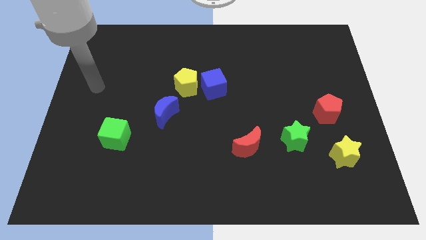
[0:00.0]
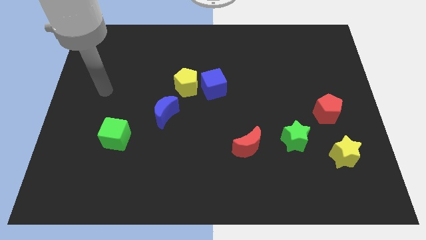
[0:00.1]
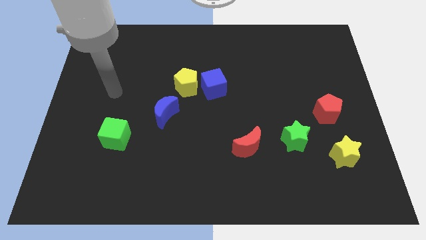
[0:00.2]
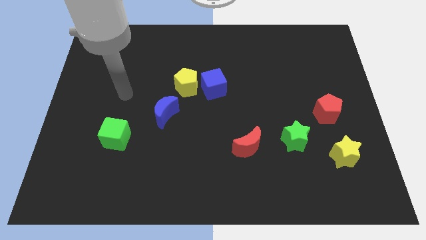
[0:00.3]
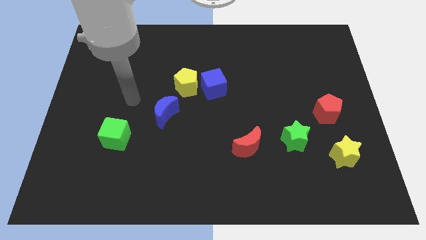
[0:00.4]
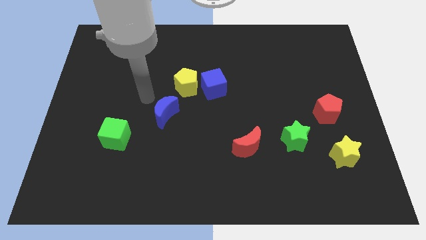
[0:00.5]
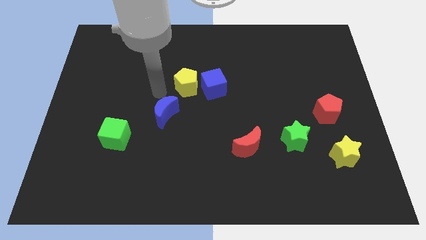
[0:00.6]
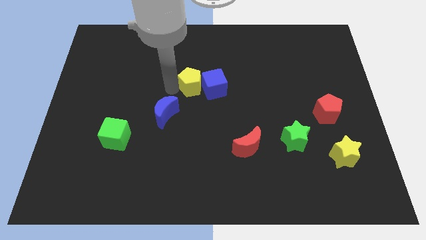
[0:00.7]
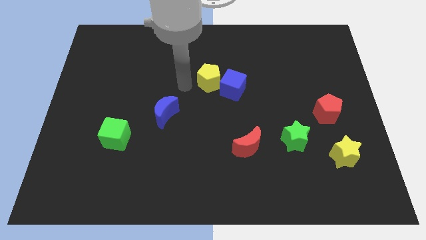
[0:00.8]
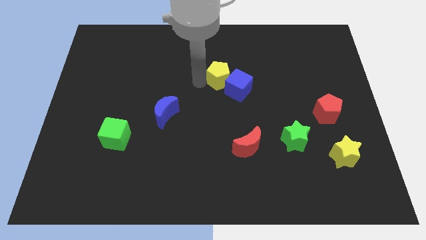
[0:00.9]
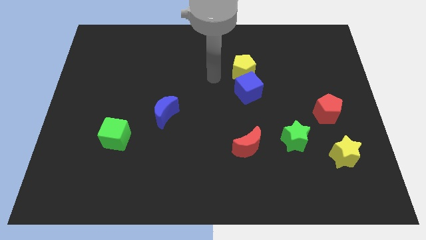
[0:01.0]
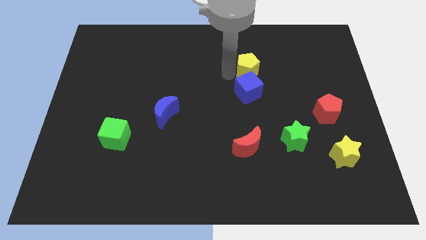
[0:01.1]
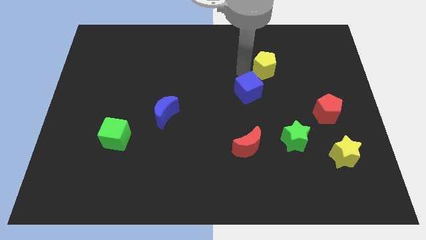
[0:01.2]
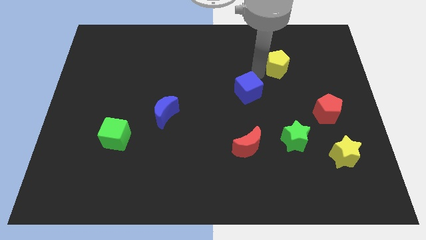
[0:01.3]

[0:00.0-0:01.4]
pull the blue cube apart from the yellow pentagon

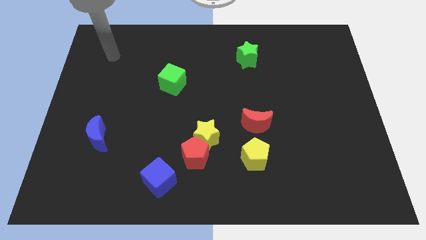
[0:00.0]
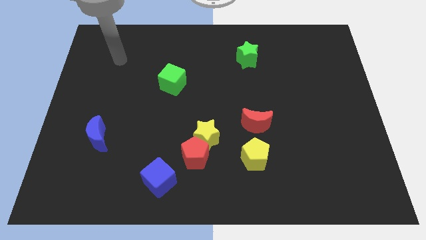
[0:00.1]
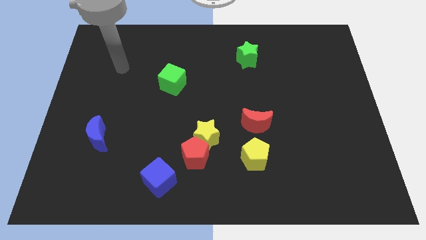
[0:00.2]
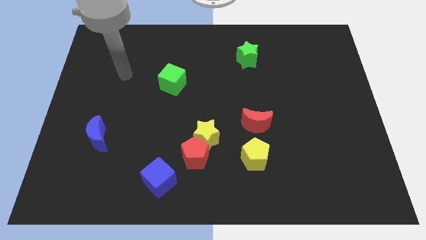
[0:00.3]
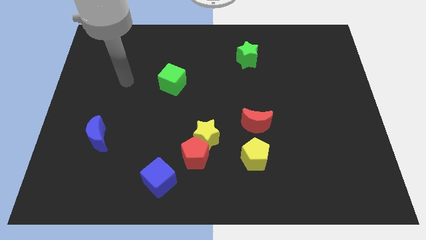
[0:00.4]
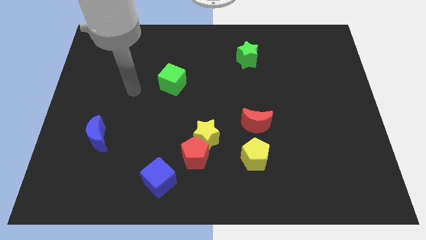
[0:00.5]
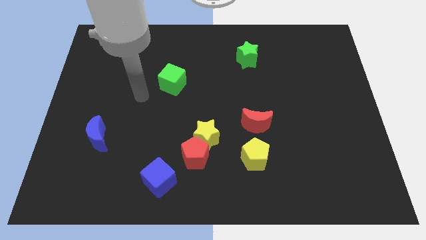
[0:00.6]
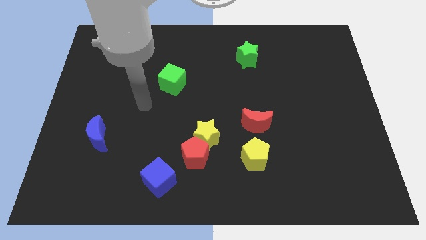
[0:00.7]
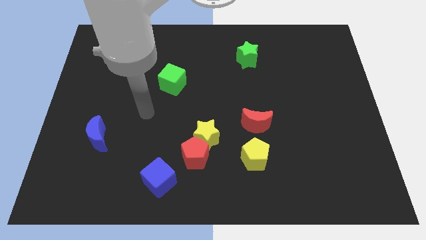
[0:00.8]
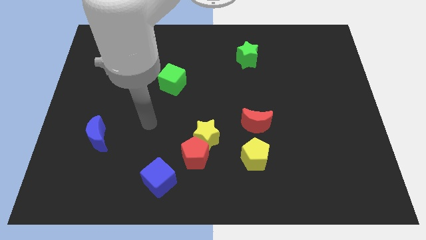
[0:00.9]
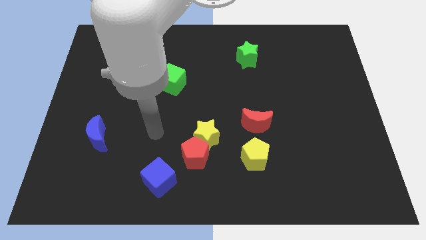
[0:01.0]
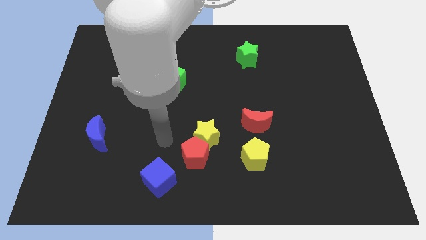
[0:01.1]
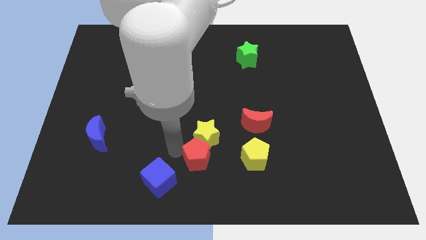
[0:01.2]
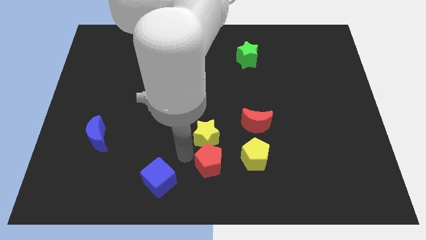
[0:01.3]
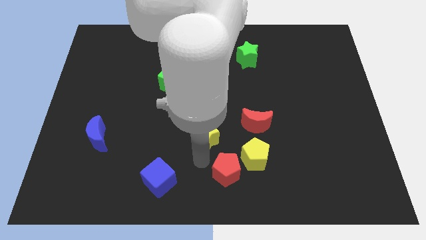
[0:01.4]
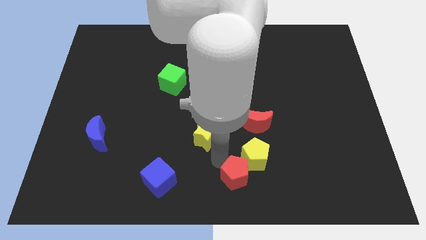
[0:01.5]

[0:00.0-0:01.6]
pull the yellow star apart from the red pentagon

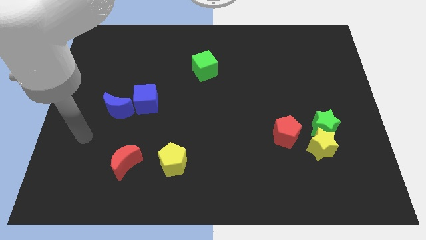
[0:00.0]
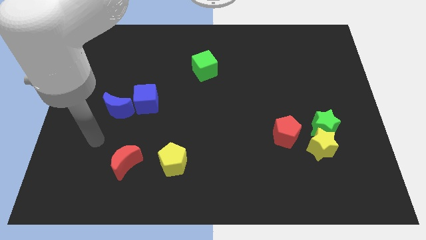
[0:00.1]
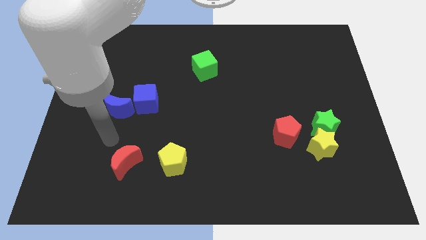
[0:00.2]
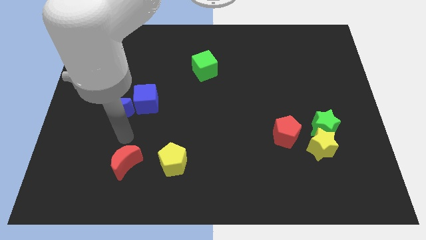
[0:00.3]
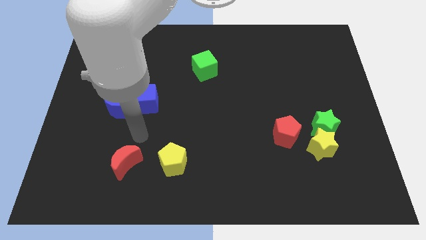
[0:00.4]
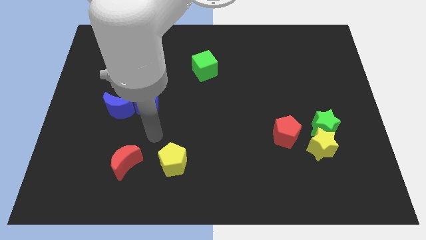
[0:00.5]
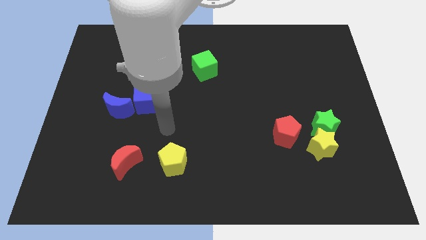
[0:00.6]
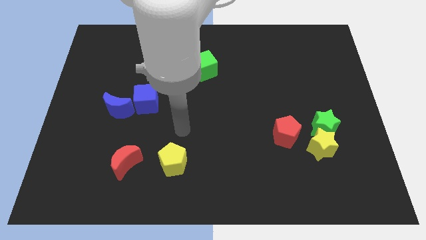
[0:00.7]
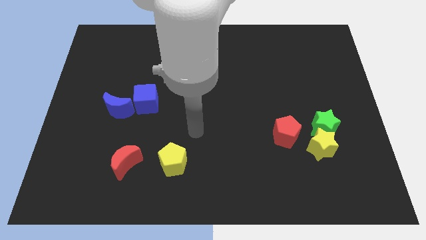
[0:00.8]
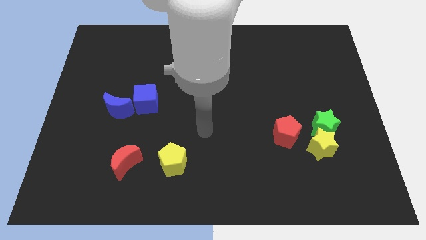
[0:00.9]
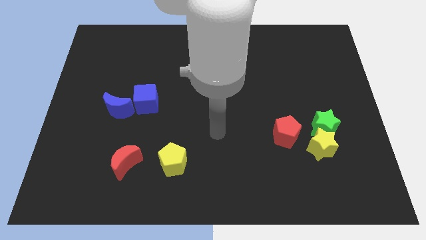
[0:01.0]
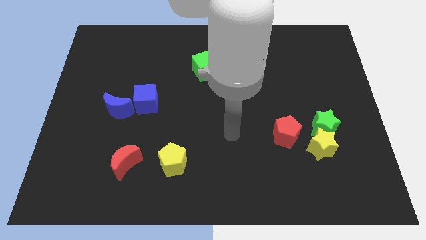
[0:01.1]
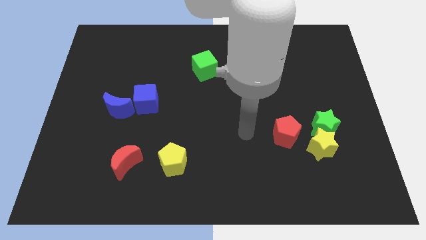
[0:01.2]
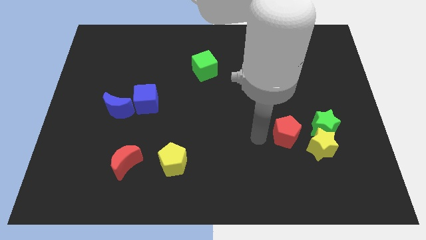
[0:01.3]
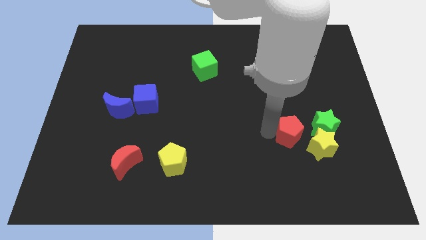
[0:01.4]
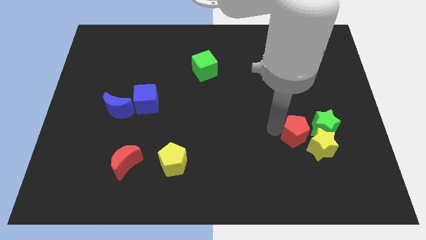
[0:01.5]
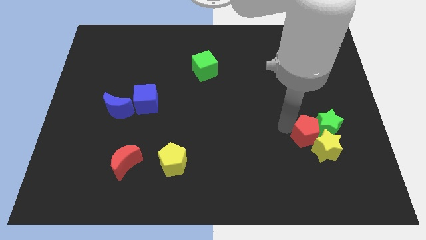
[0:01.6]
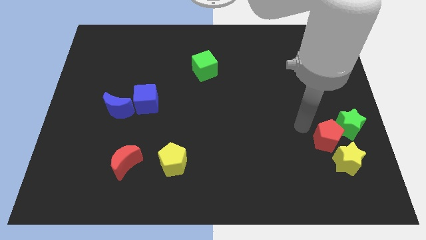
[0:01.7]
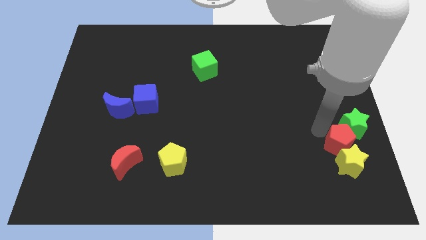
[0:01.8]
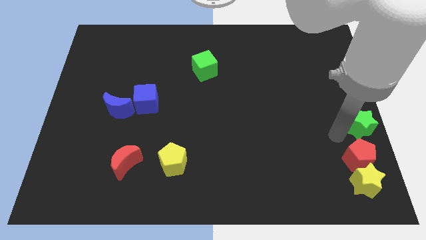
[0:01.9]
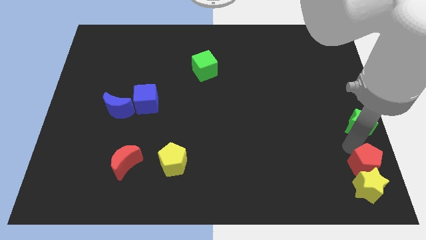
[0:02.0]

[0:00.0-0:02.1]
pull the yellow star apart from the green star and red pentagon

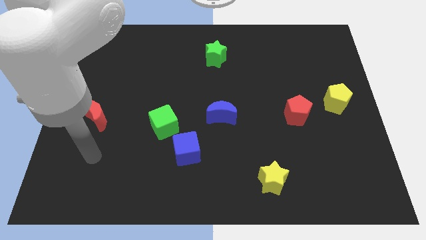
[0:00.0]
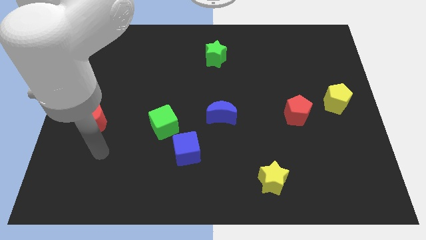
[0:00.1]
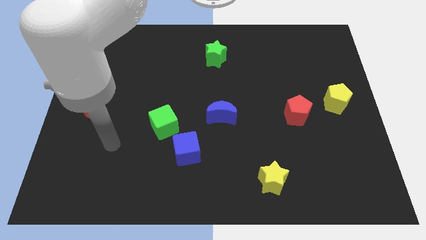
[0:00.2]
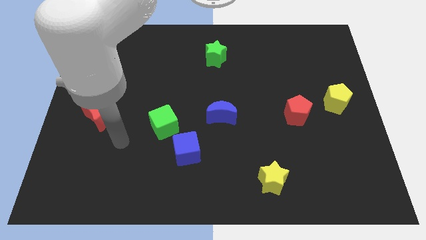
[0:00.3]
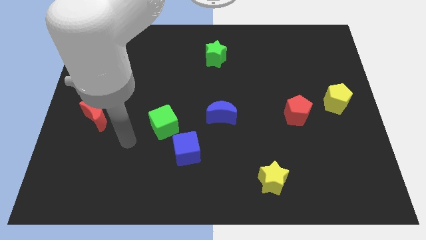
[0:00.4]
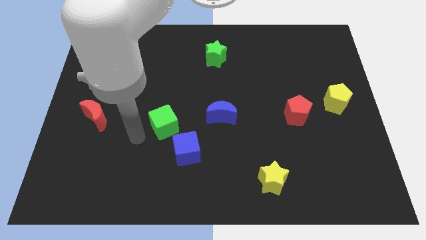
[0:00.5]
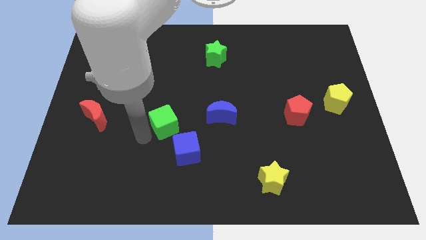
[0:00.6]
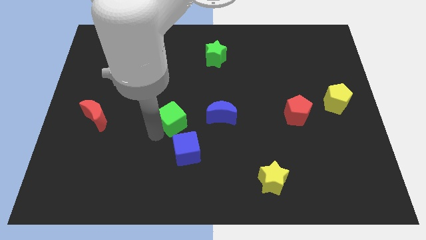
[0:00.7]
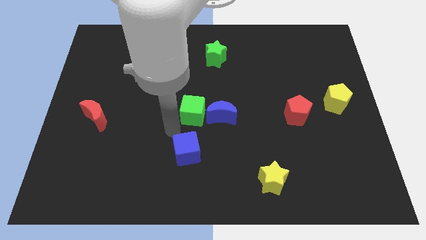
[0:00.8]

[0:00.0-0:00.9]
pull the blue cube apart from the green cube

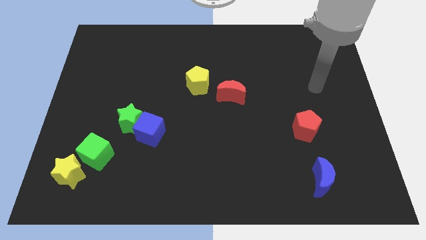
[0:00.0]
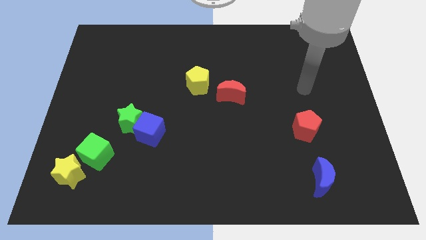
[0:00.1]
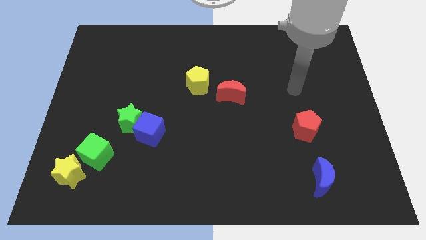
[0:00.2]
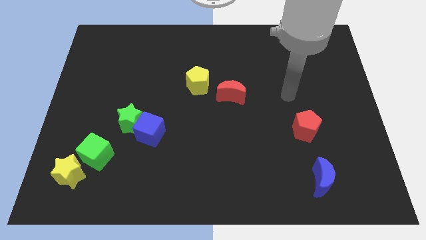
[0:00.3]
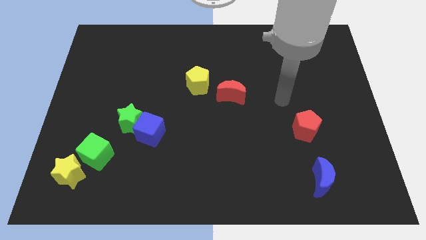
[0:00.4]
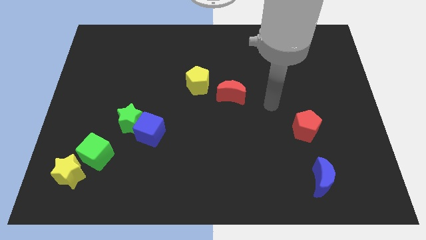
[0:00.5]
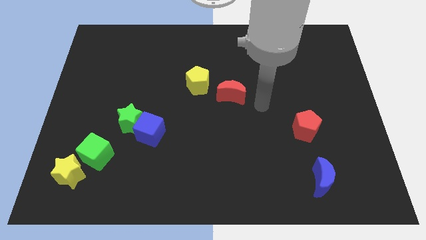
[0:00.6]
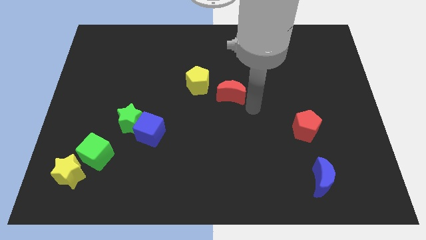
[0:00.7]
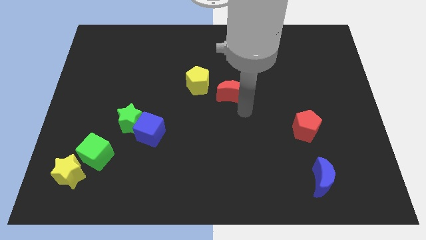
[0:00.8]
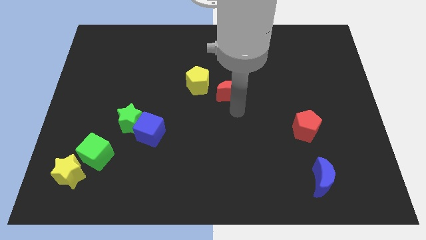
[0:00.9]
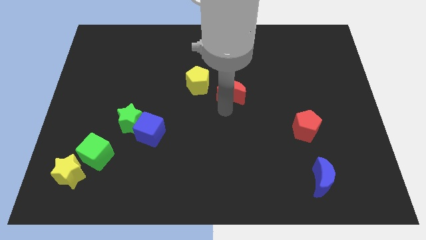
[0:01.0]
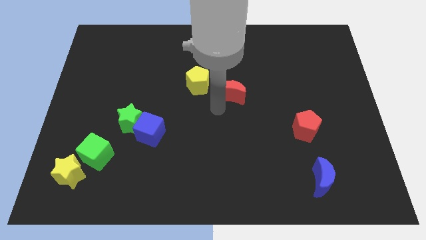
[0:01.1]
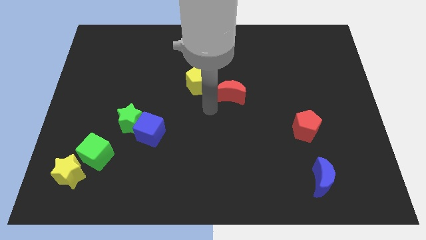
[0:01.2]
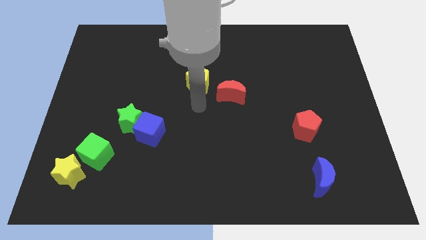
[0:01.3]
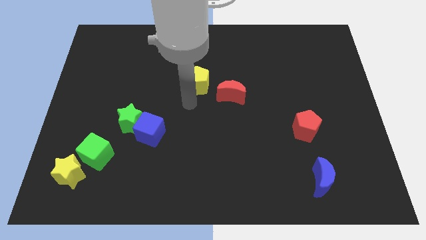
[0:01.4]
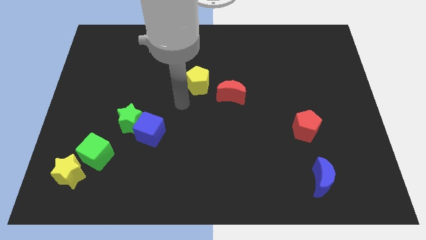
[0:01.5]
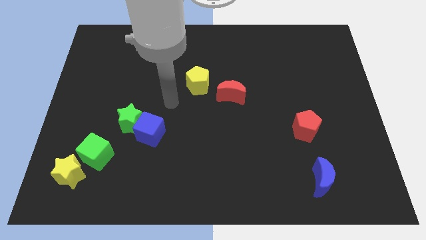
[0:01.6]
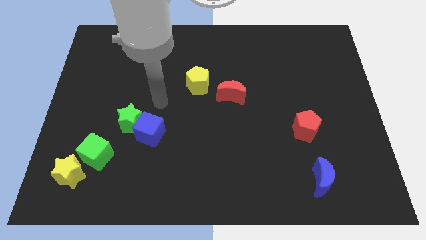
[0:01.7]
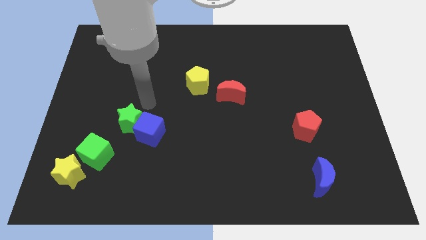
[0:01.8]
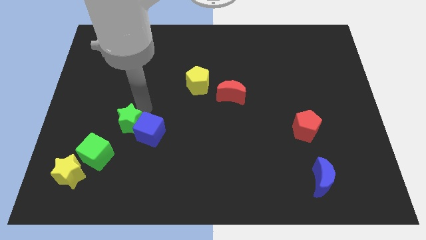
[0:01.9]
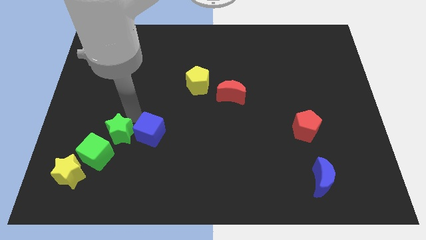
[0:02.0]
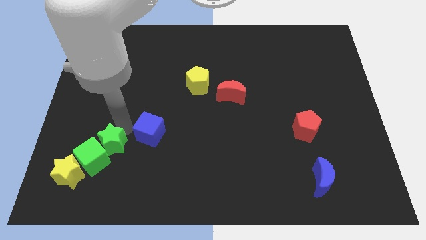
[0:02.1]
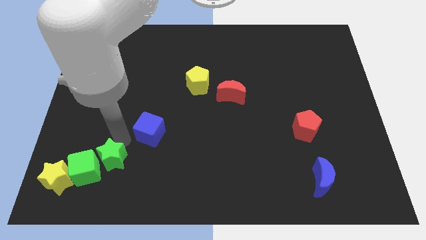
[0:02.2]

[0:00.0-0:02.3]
move the blue cube away from the green star

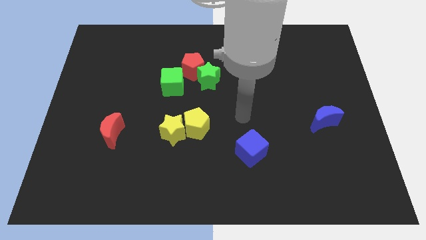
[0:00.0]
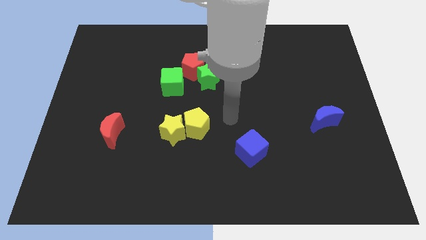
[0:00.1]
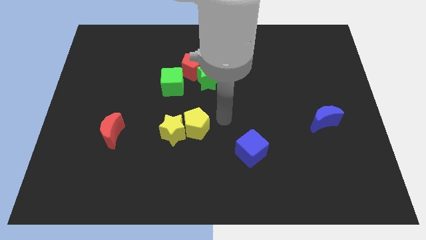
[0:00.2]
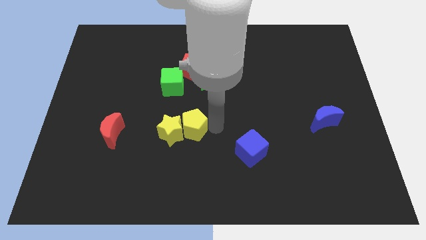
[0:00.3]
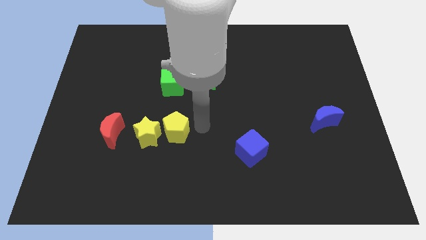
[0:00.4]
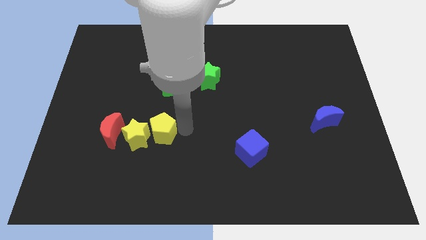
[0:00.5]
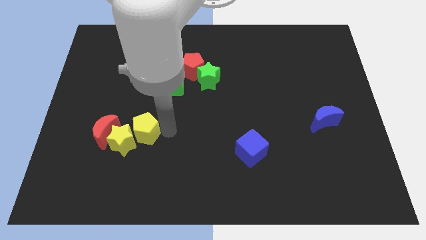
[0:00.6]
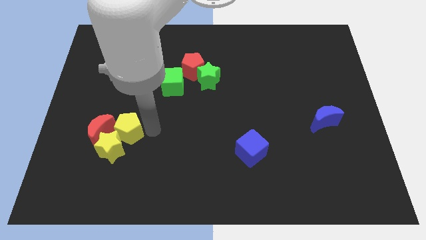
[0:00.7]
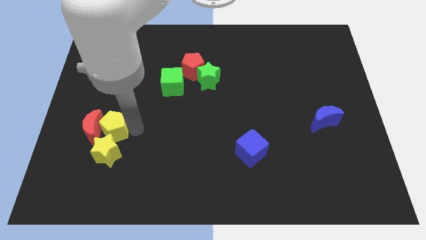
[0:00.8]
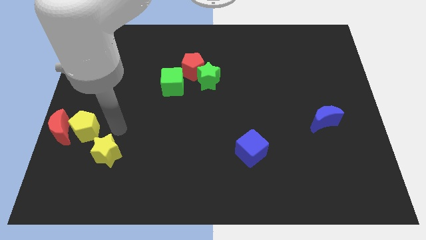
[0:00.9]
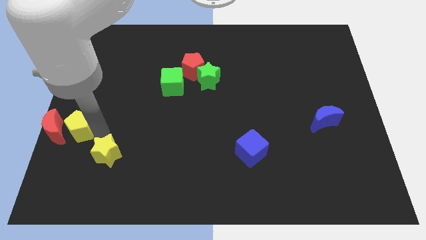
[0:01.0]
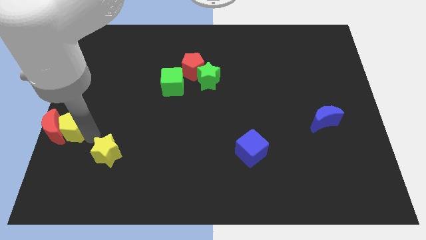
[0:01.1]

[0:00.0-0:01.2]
pull the yellow star apart from the yellow pentagon
